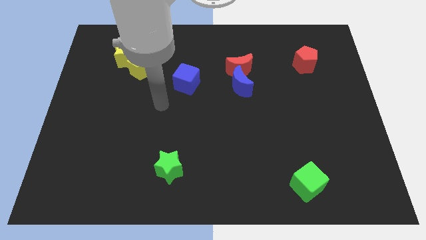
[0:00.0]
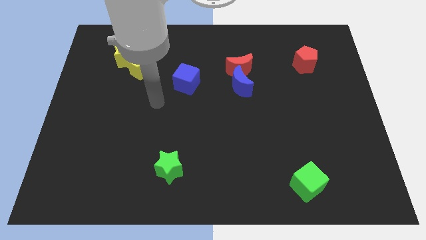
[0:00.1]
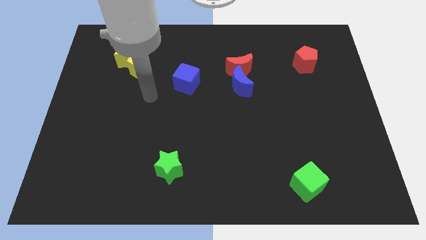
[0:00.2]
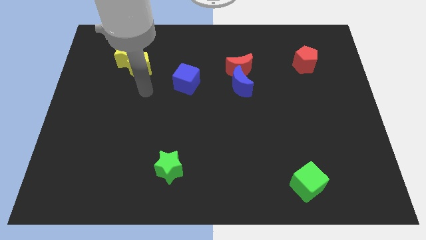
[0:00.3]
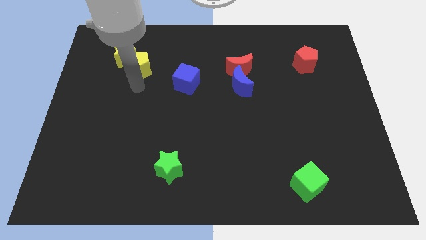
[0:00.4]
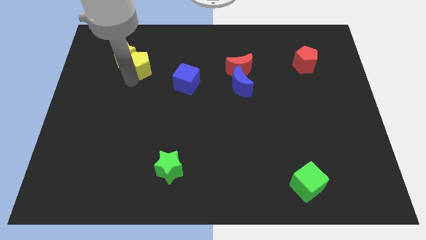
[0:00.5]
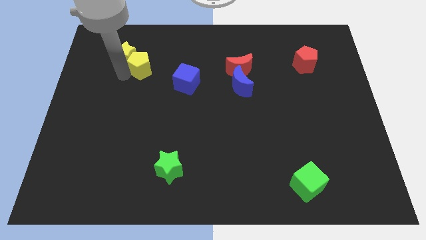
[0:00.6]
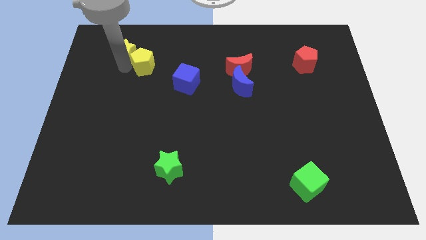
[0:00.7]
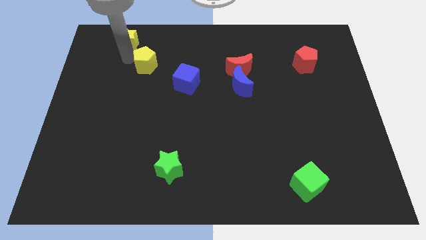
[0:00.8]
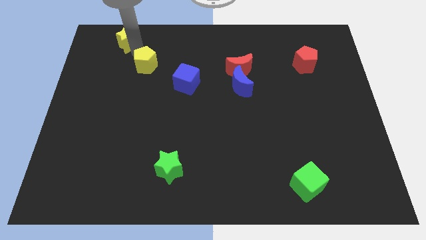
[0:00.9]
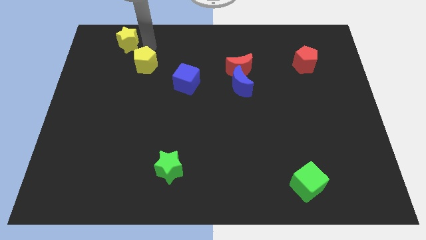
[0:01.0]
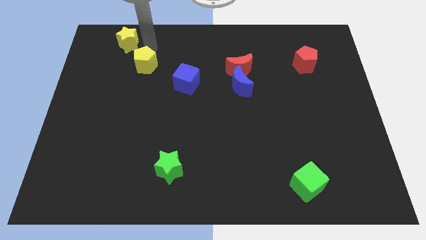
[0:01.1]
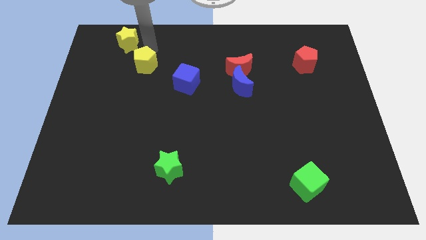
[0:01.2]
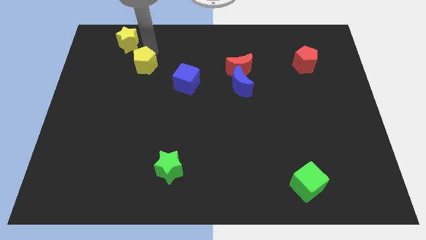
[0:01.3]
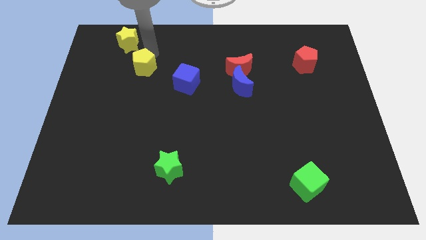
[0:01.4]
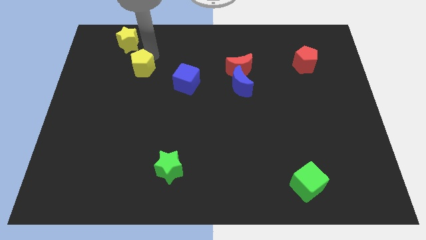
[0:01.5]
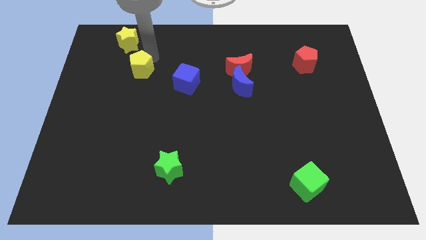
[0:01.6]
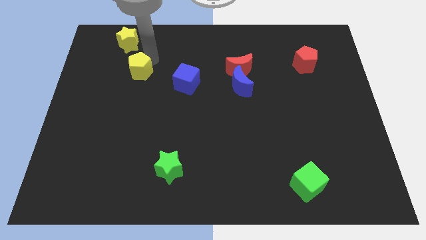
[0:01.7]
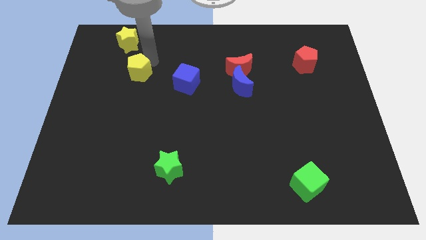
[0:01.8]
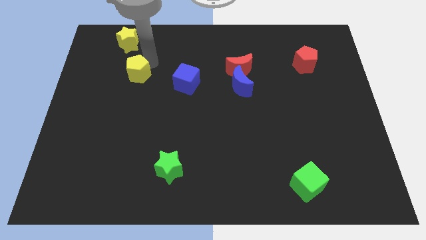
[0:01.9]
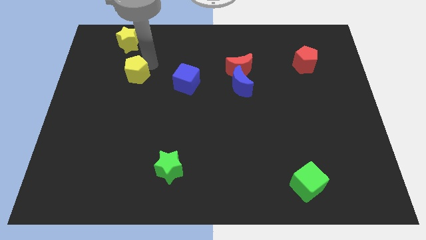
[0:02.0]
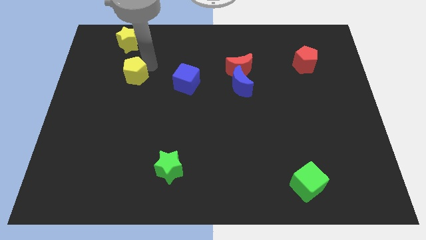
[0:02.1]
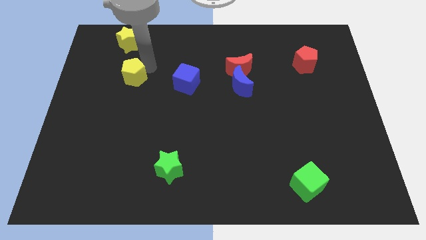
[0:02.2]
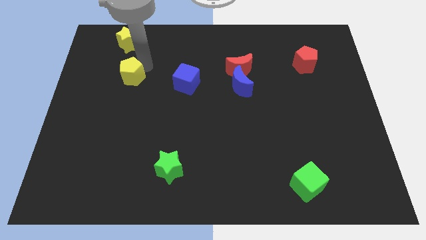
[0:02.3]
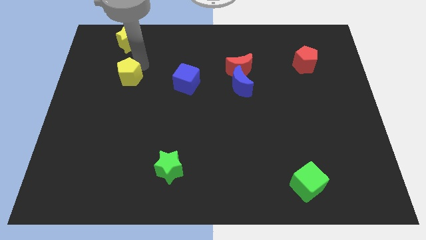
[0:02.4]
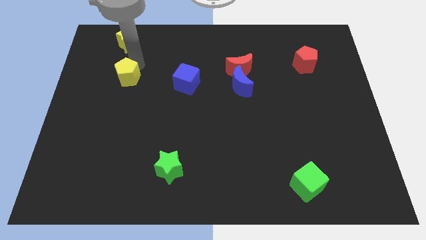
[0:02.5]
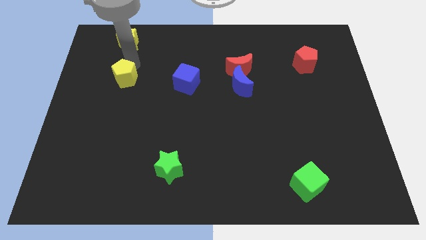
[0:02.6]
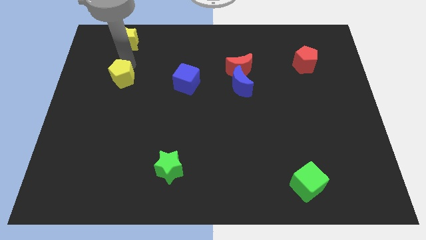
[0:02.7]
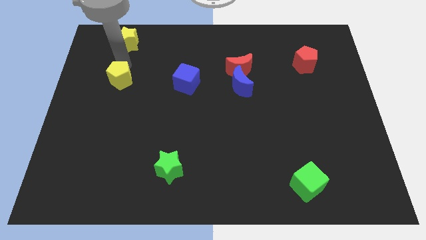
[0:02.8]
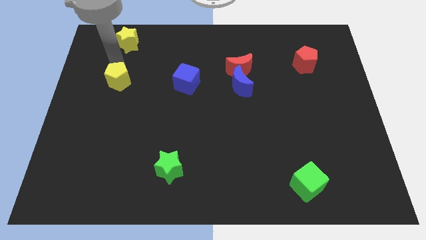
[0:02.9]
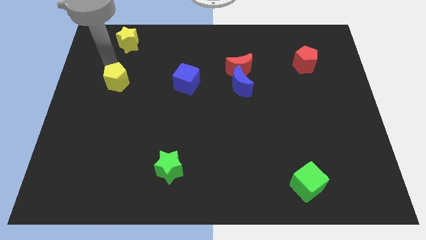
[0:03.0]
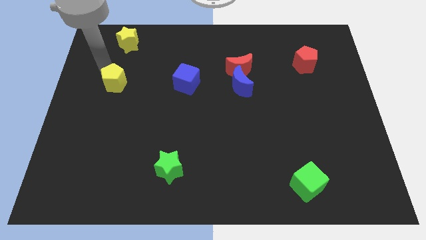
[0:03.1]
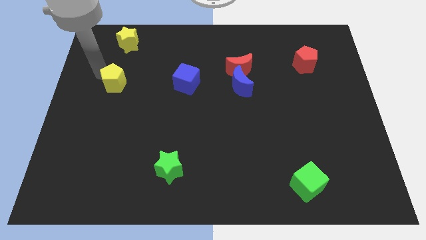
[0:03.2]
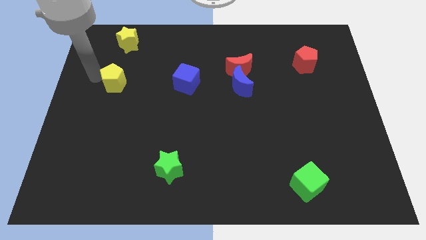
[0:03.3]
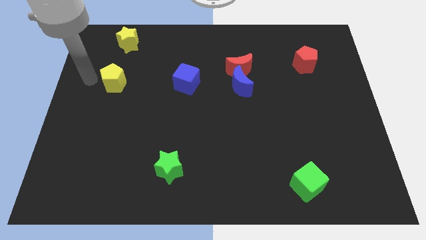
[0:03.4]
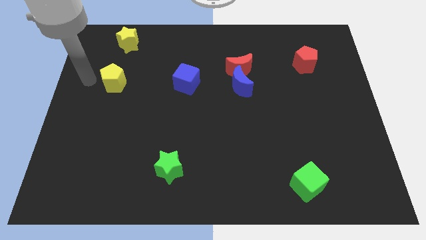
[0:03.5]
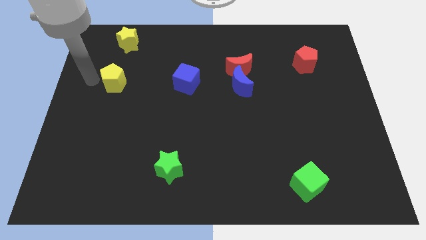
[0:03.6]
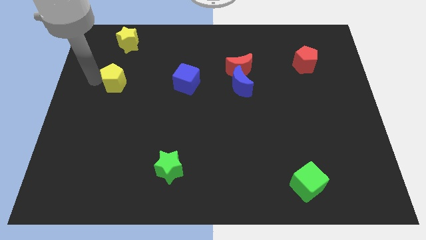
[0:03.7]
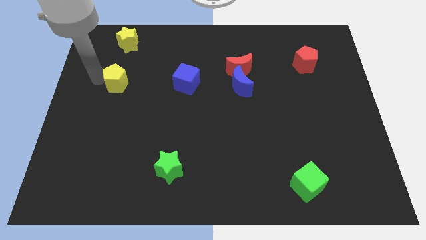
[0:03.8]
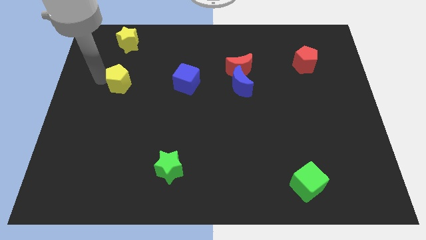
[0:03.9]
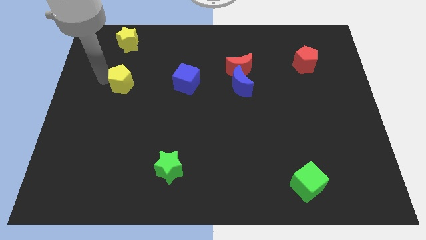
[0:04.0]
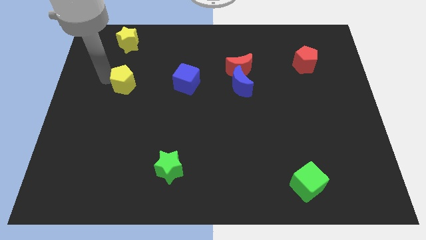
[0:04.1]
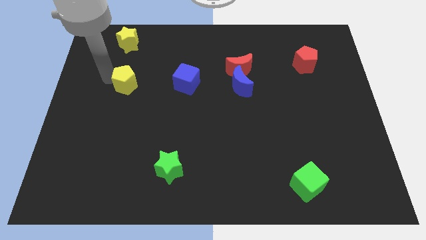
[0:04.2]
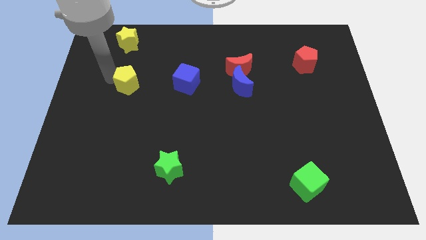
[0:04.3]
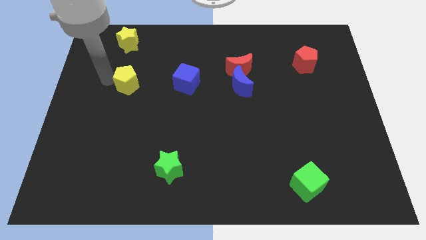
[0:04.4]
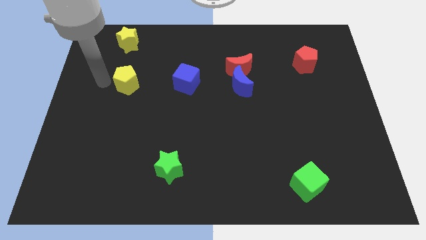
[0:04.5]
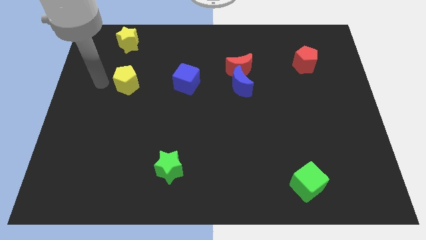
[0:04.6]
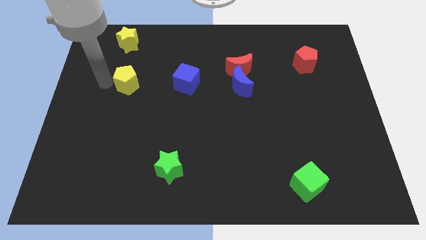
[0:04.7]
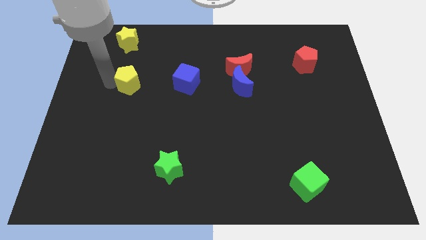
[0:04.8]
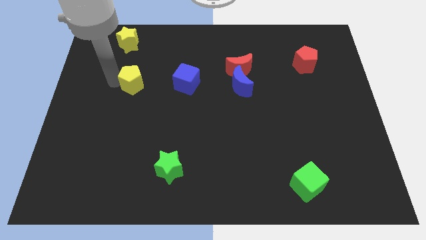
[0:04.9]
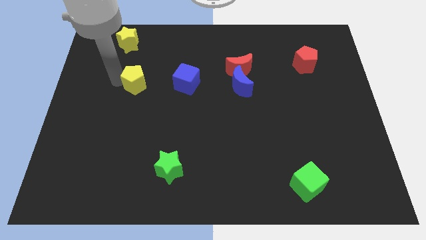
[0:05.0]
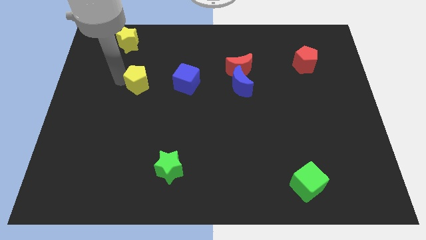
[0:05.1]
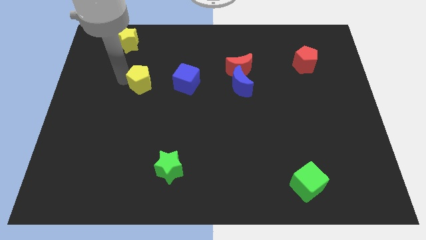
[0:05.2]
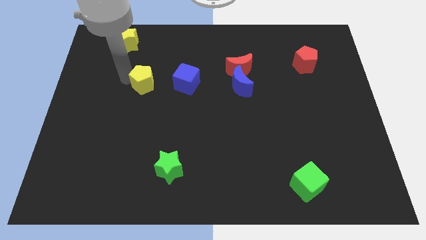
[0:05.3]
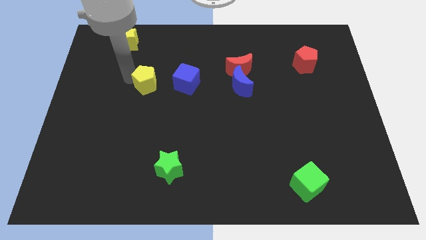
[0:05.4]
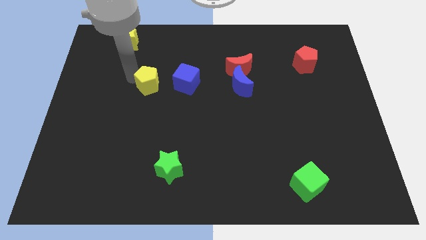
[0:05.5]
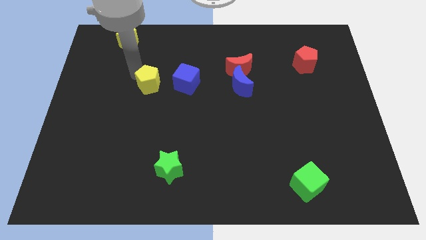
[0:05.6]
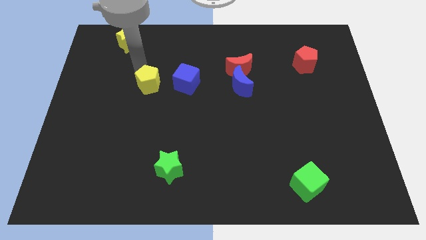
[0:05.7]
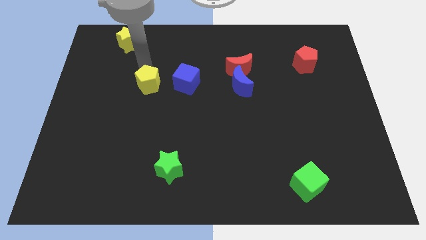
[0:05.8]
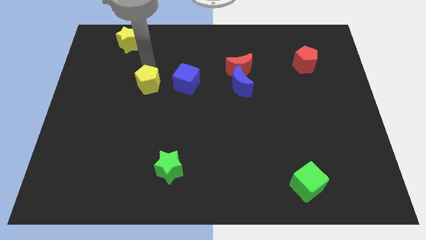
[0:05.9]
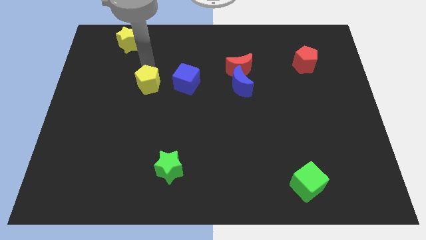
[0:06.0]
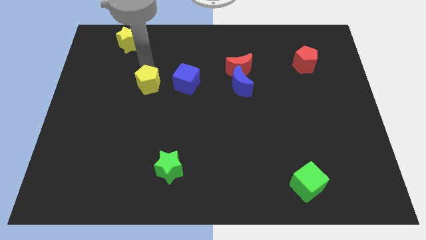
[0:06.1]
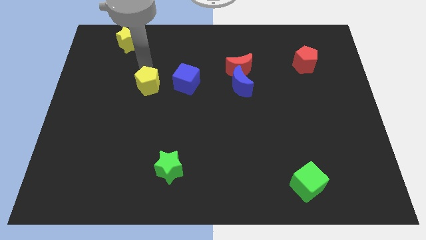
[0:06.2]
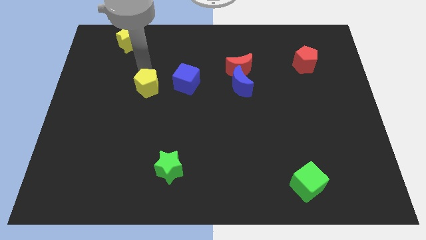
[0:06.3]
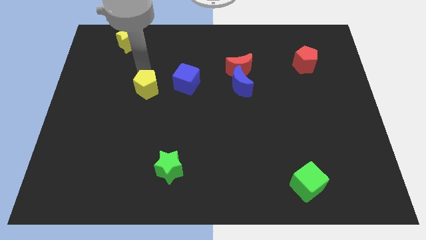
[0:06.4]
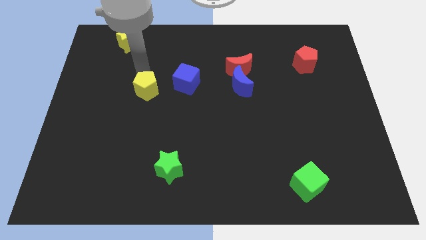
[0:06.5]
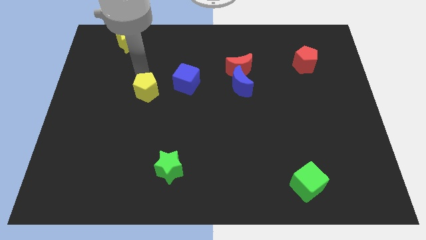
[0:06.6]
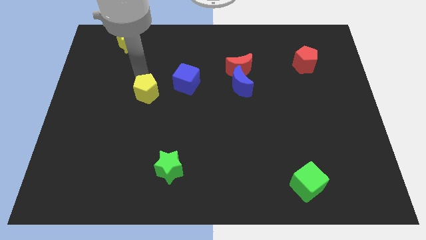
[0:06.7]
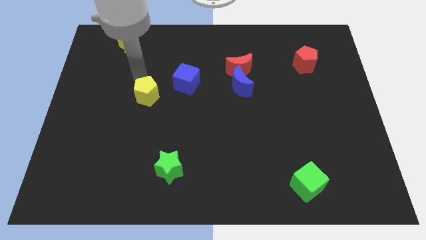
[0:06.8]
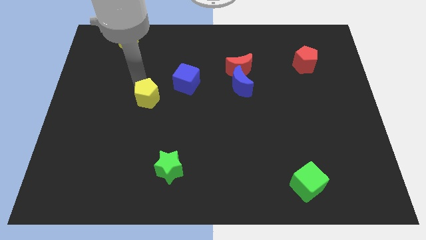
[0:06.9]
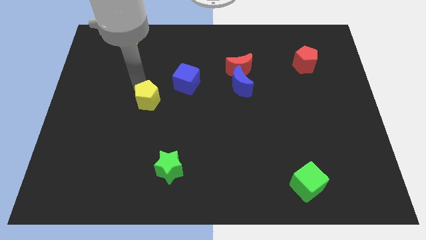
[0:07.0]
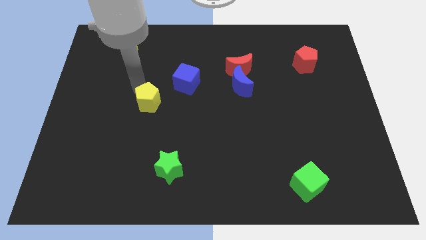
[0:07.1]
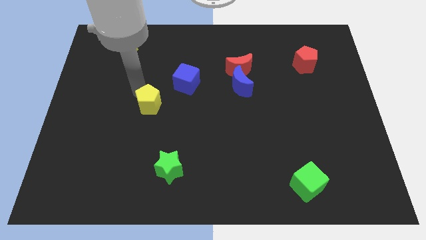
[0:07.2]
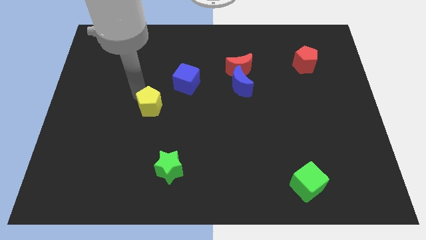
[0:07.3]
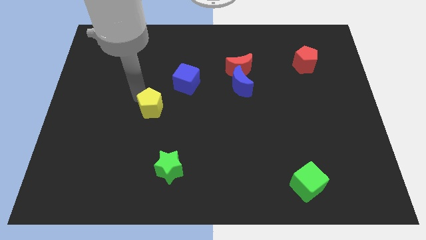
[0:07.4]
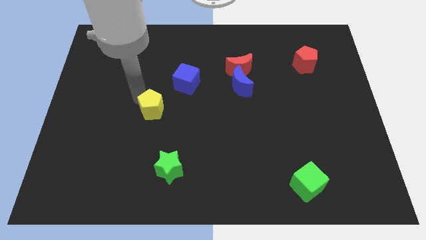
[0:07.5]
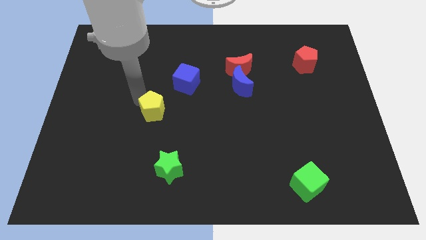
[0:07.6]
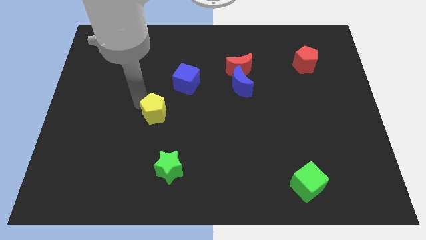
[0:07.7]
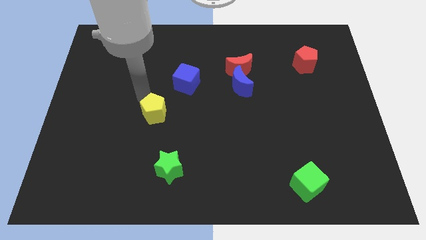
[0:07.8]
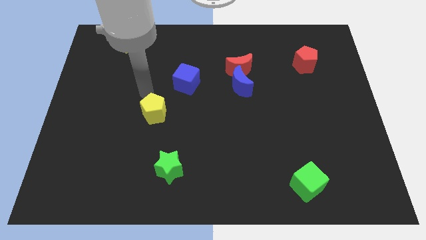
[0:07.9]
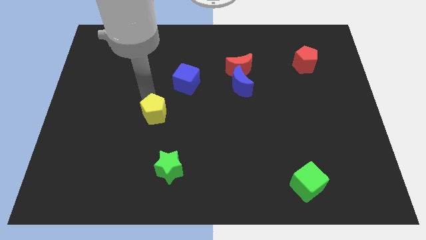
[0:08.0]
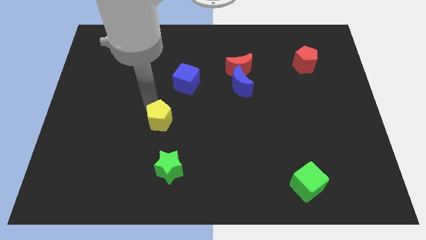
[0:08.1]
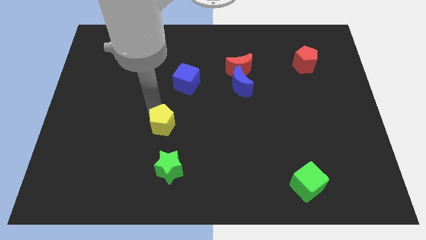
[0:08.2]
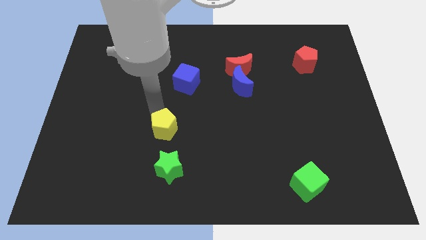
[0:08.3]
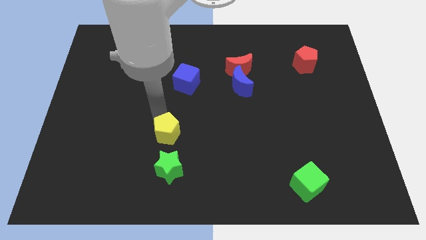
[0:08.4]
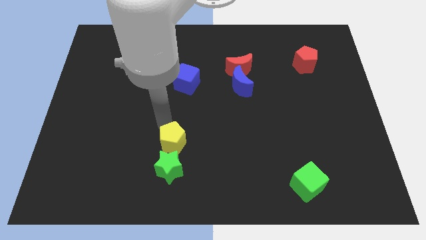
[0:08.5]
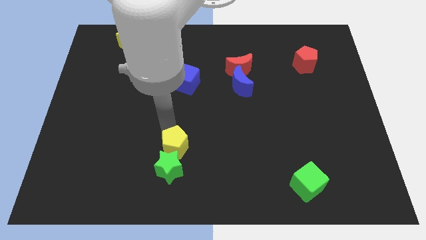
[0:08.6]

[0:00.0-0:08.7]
push the yellow pentagon next to the green star
